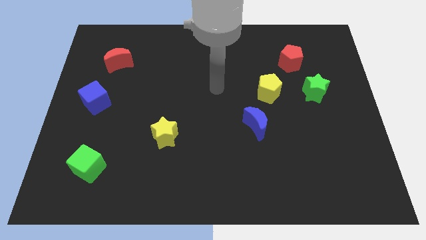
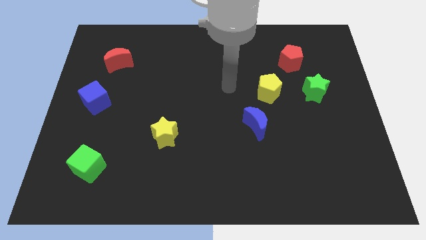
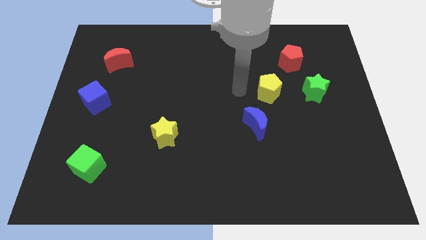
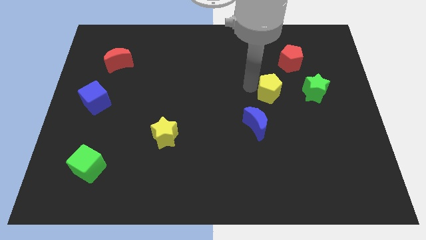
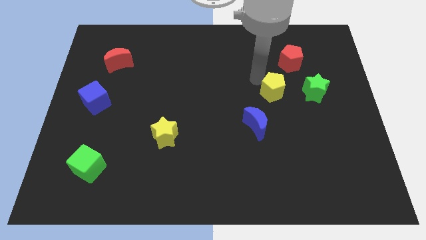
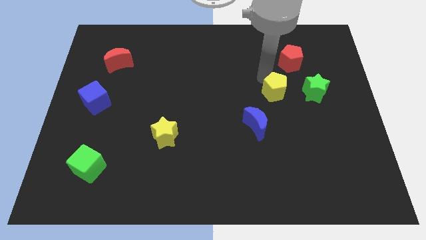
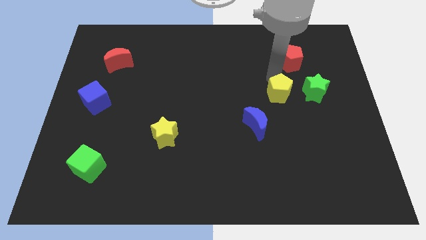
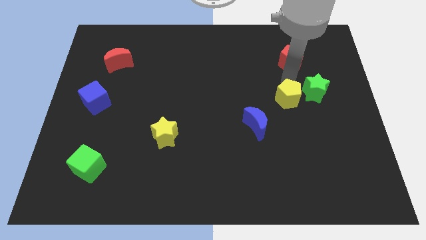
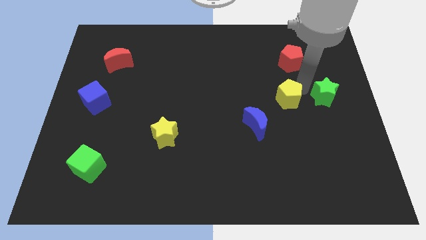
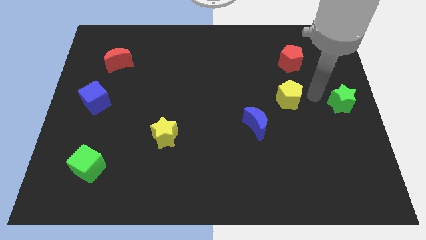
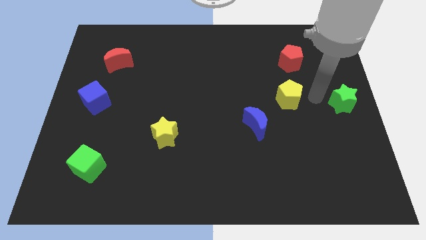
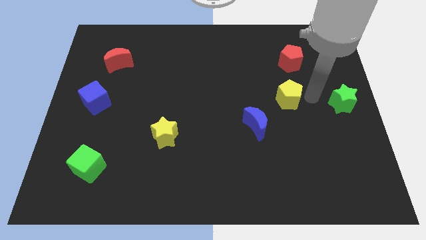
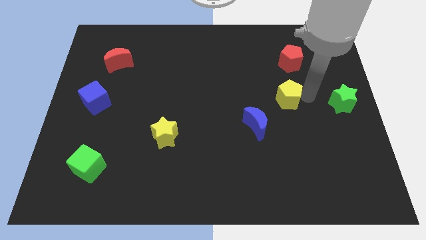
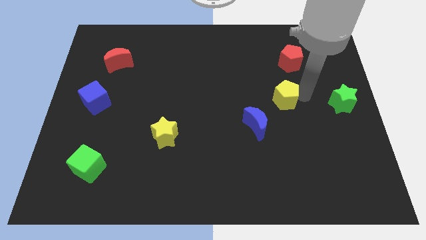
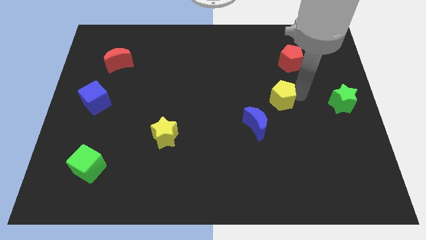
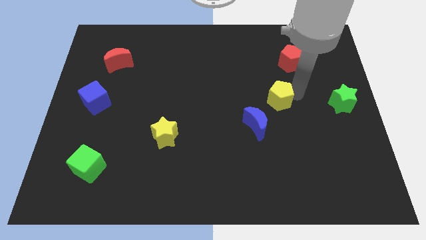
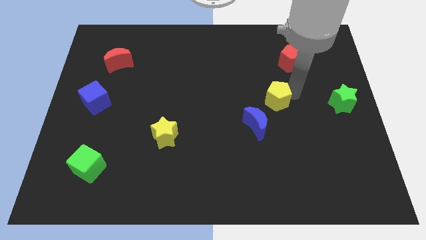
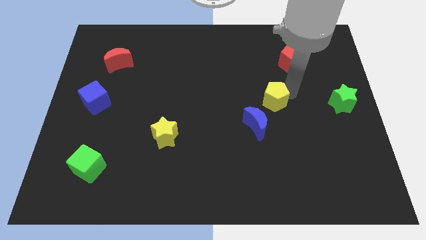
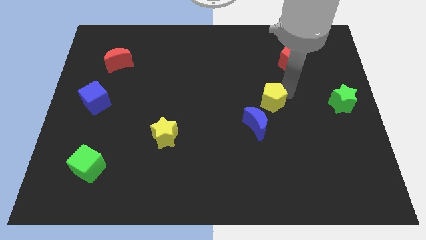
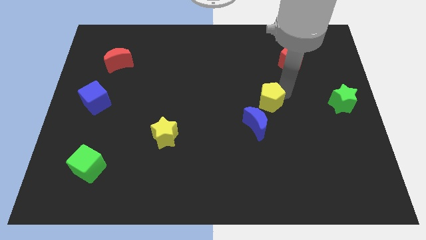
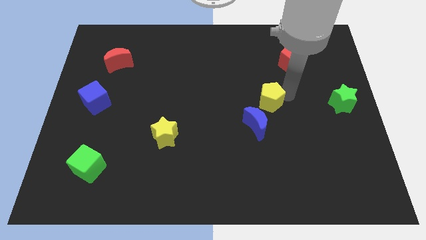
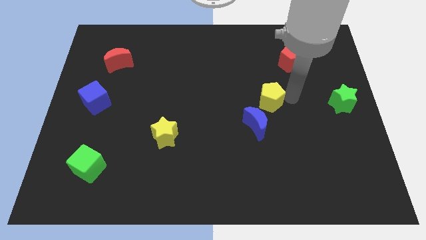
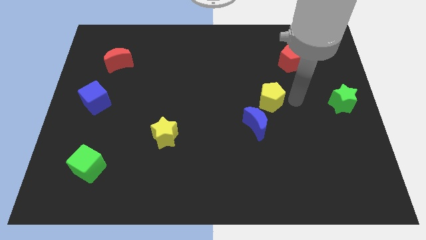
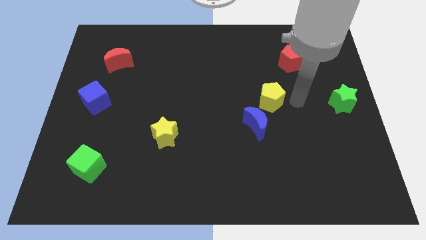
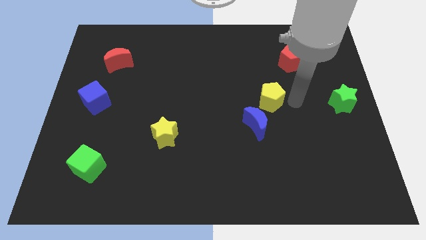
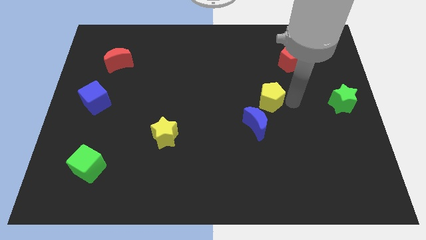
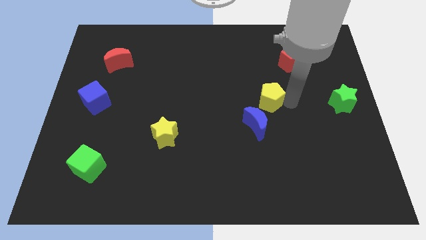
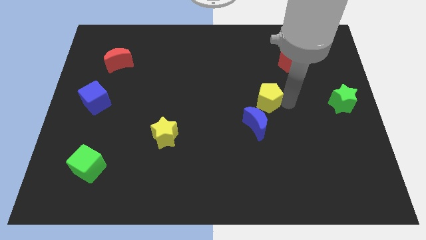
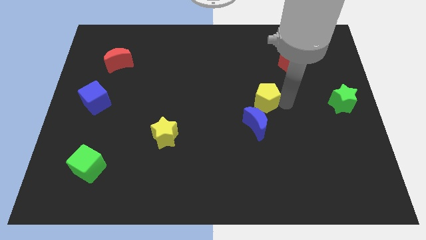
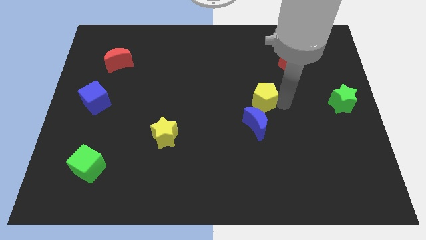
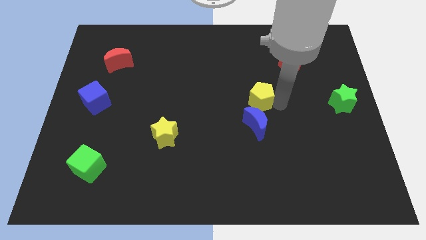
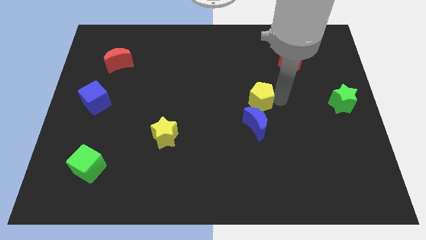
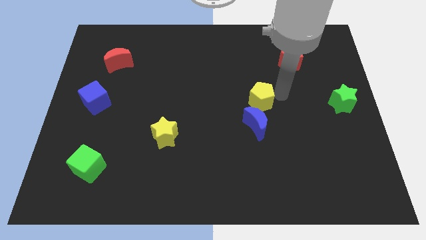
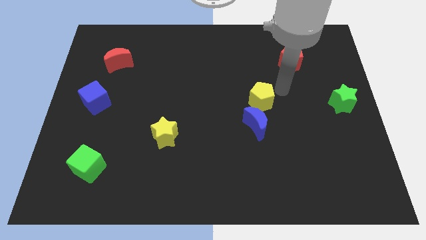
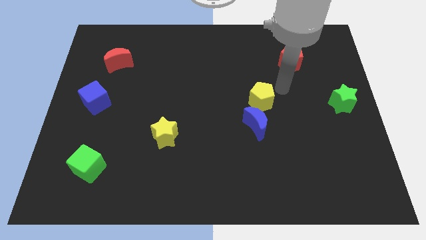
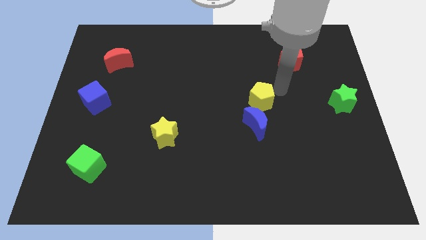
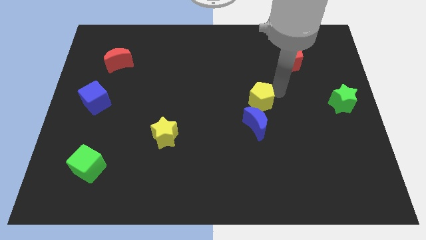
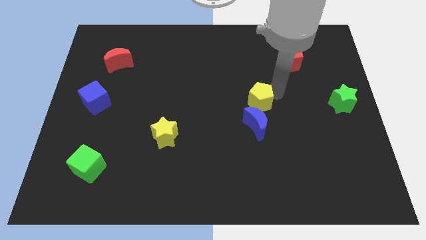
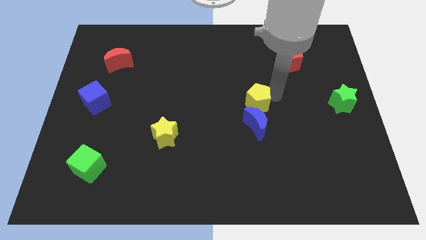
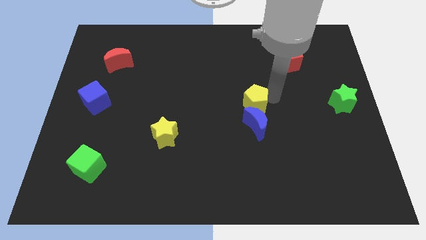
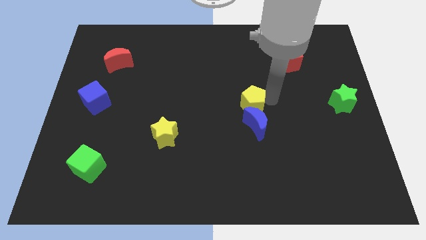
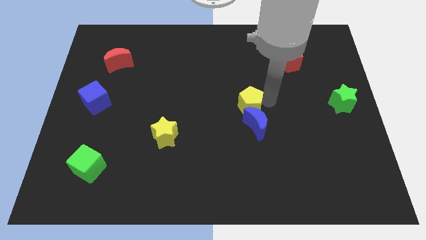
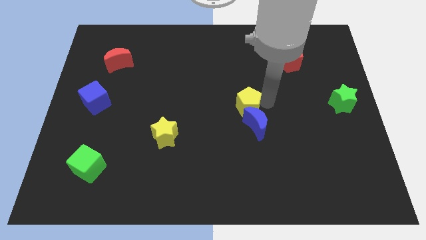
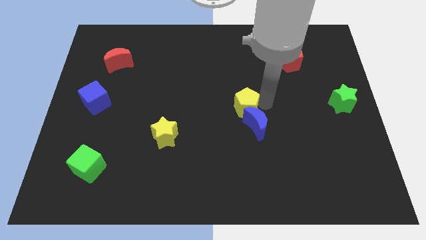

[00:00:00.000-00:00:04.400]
push the yellow pentagon downwards and to the left a bit

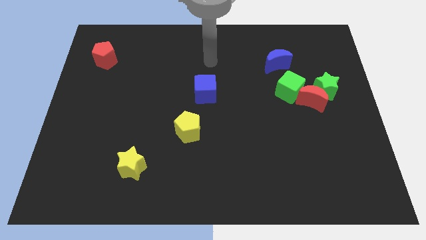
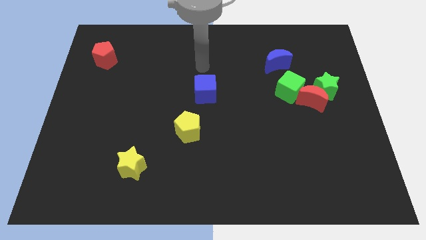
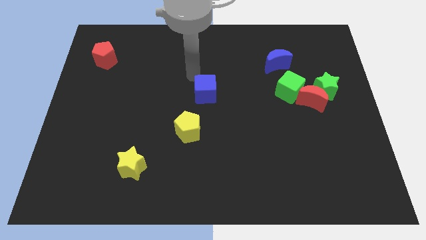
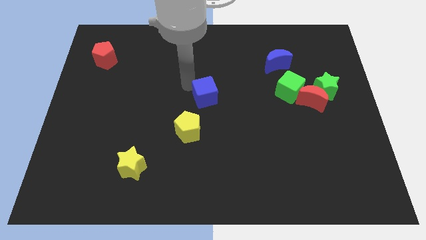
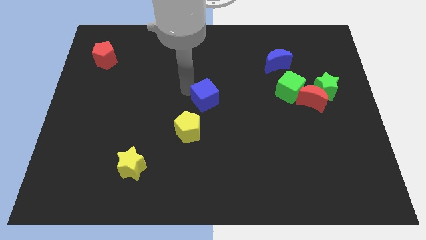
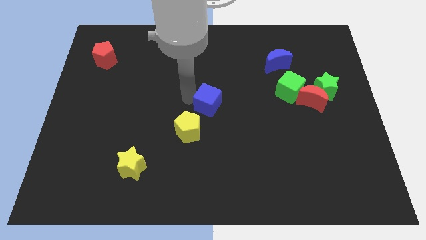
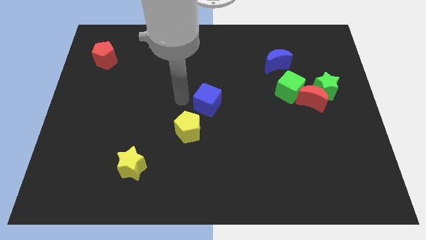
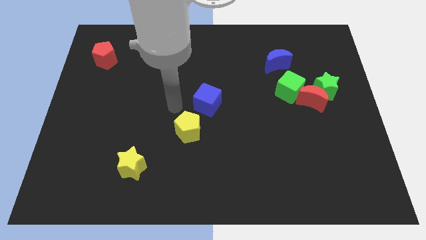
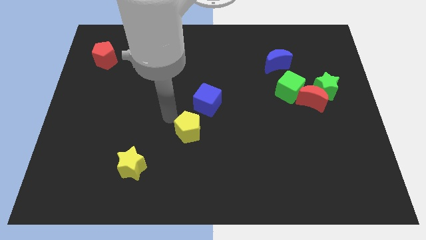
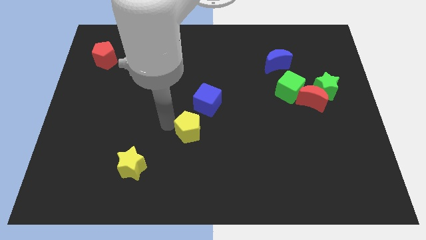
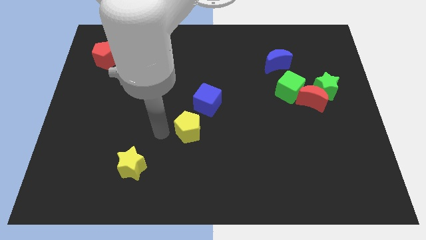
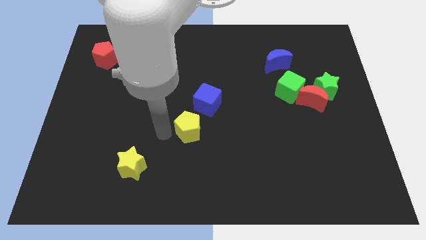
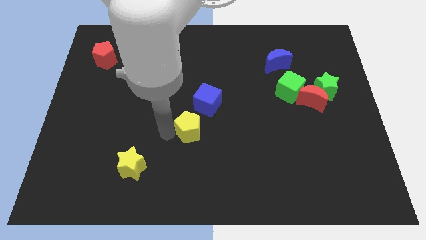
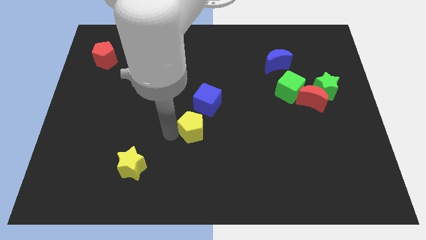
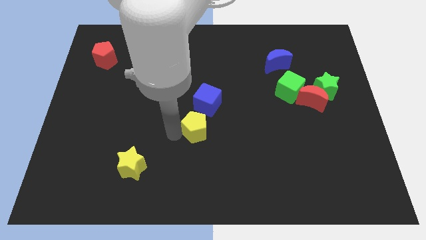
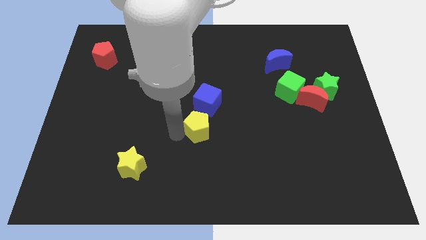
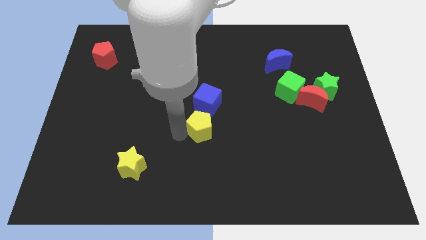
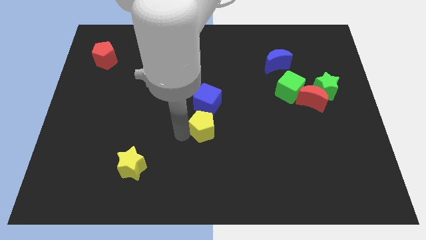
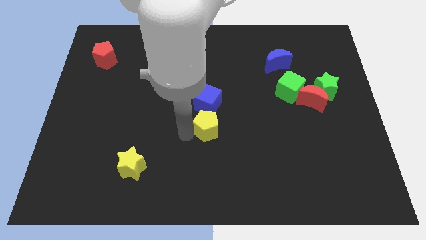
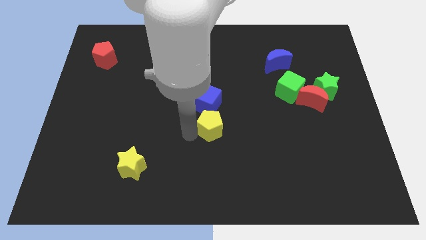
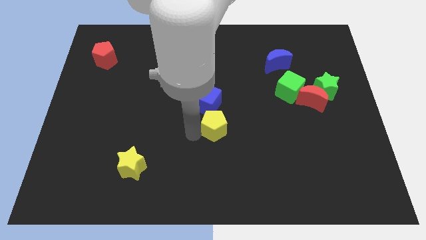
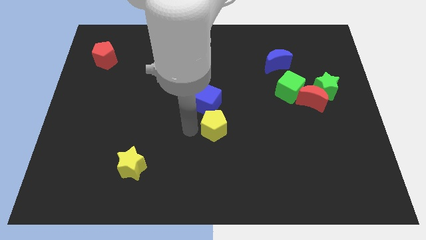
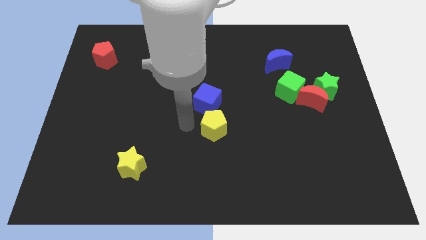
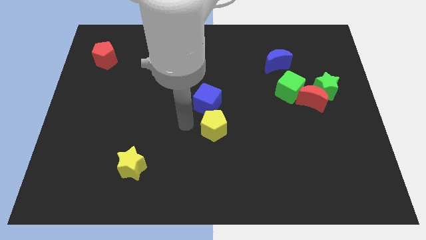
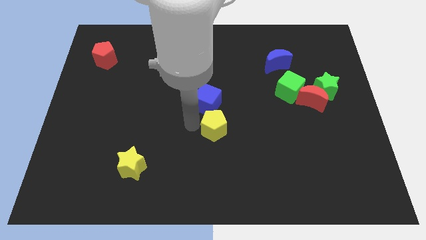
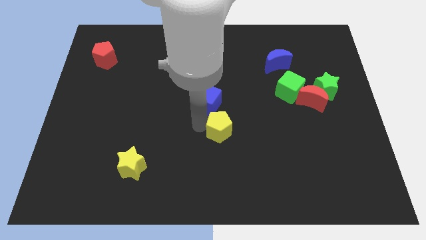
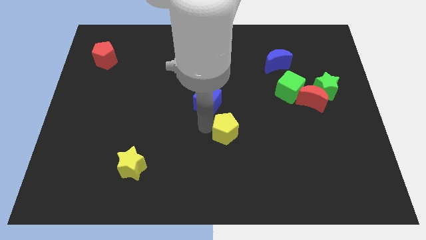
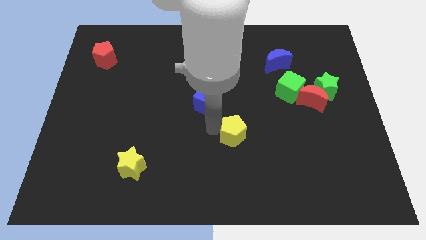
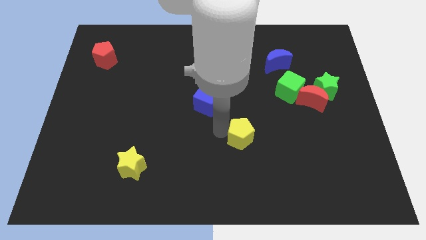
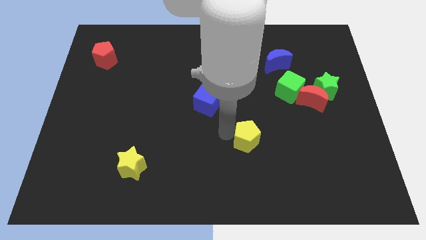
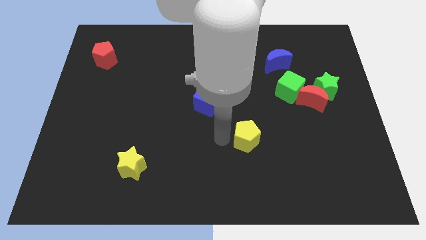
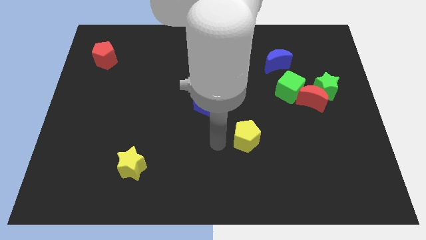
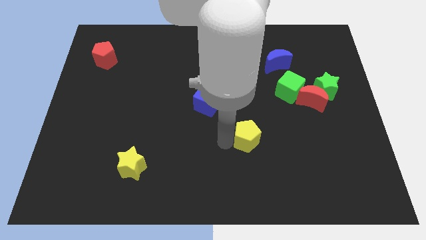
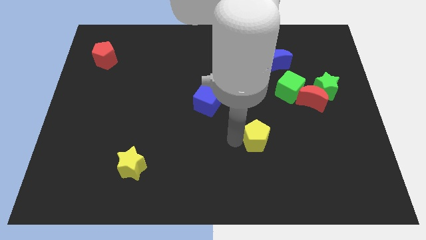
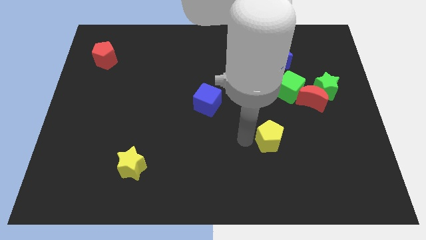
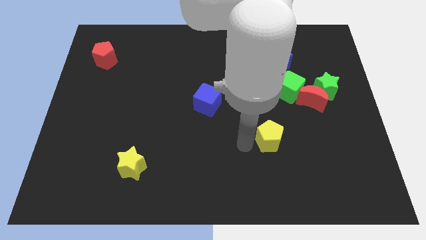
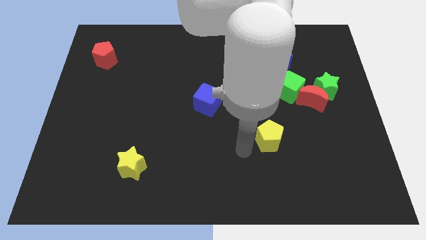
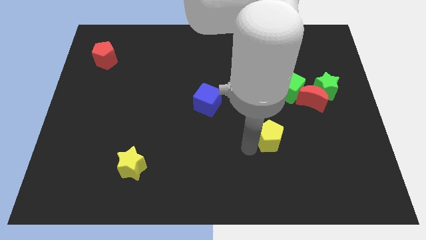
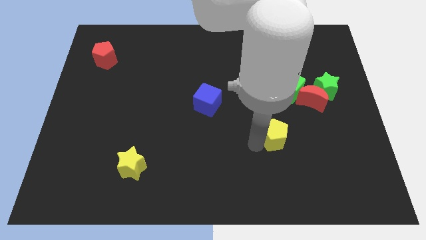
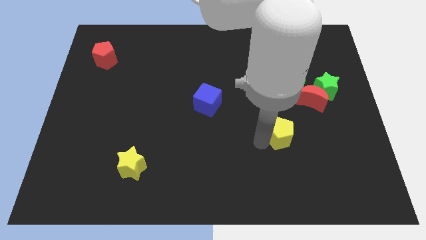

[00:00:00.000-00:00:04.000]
move the yellow pentagon right
